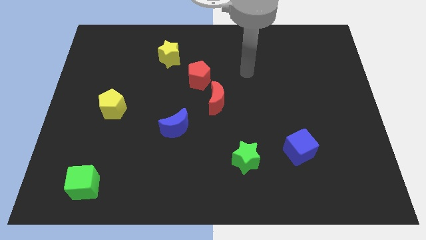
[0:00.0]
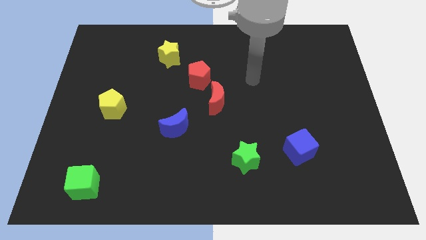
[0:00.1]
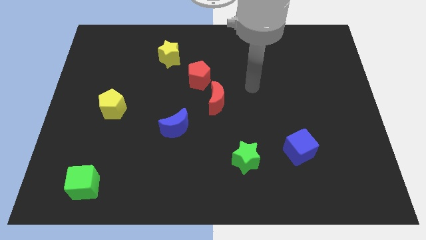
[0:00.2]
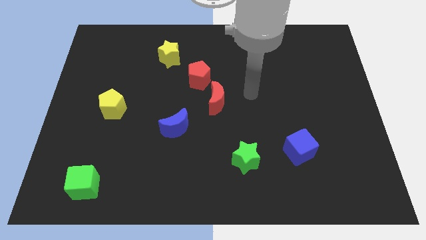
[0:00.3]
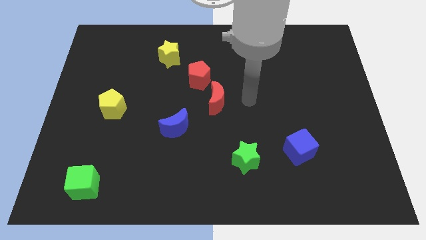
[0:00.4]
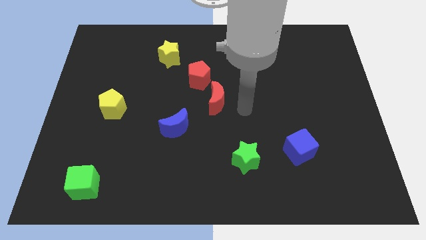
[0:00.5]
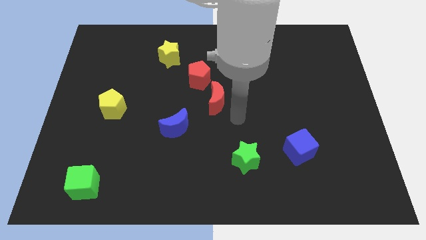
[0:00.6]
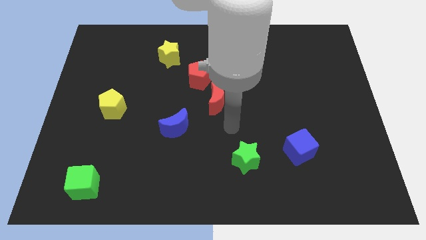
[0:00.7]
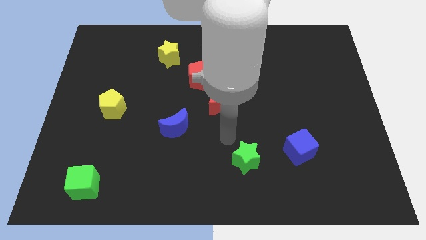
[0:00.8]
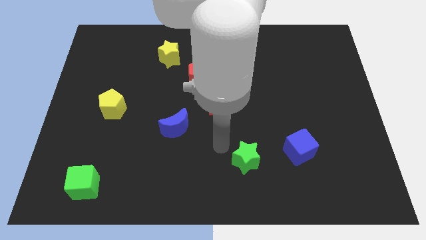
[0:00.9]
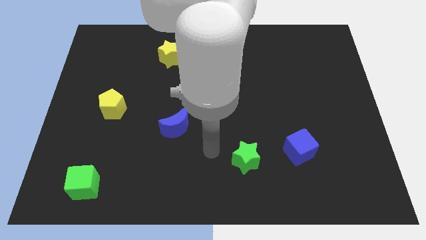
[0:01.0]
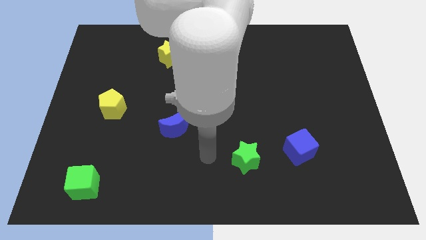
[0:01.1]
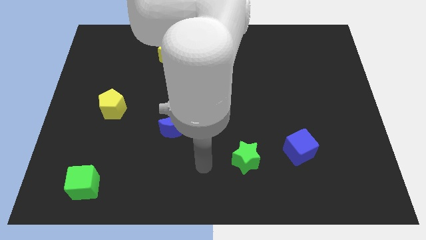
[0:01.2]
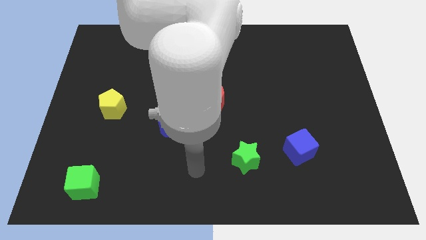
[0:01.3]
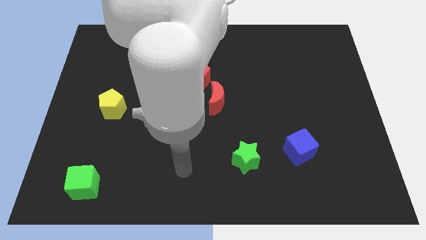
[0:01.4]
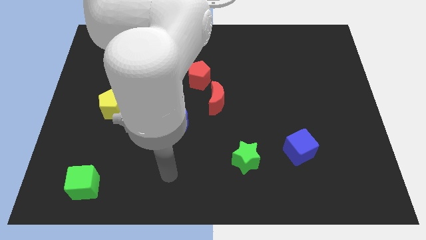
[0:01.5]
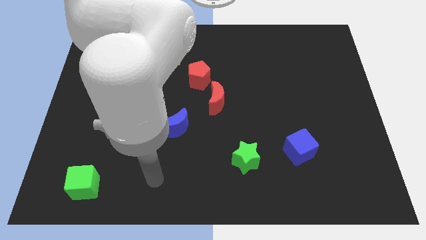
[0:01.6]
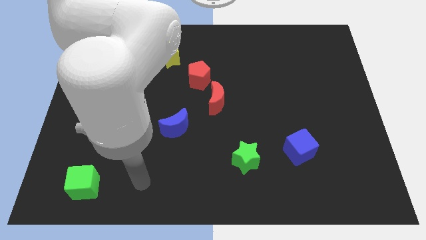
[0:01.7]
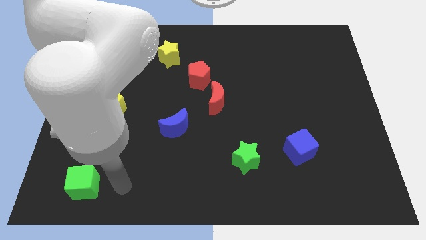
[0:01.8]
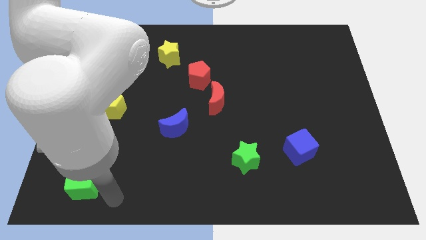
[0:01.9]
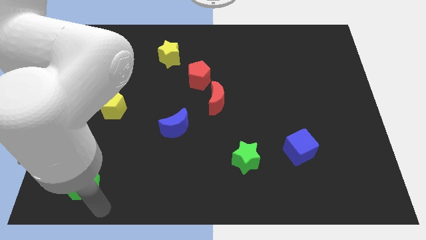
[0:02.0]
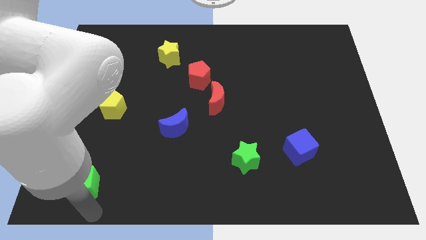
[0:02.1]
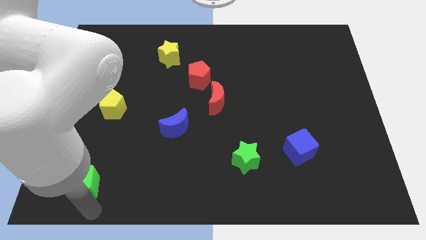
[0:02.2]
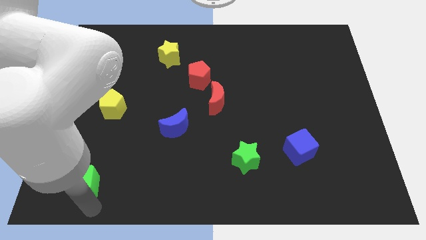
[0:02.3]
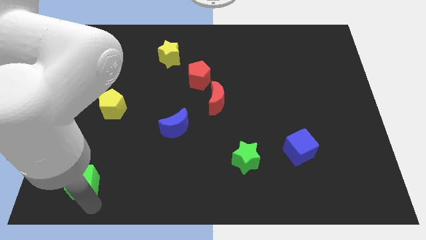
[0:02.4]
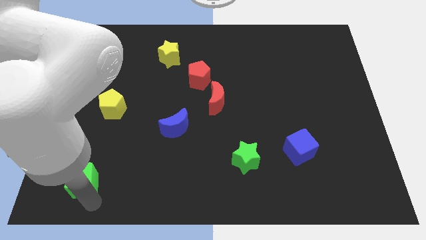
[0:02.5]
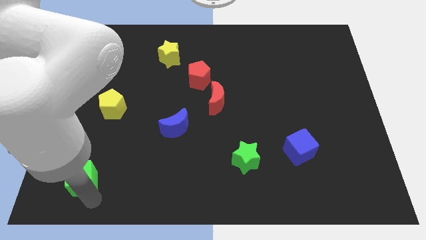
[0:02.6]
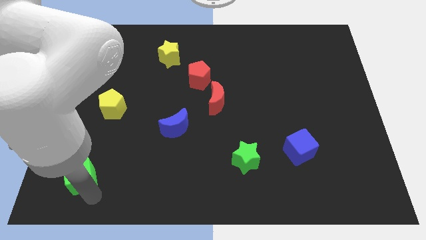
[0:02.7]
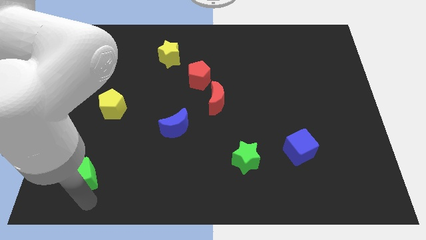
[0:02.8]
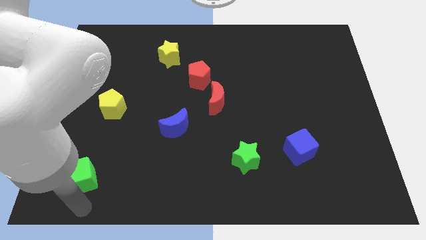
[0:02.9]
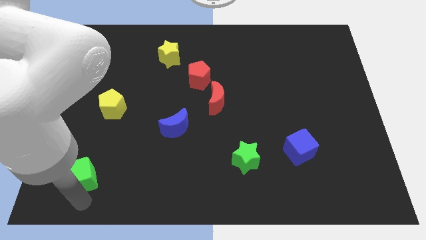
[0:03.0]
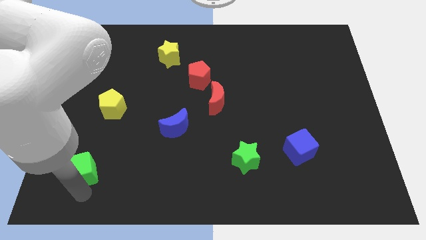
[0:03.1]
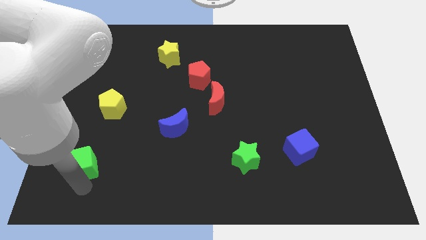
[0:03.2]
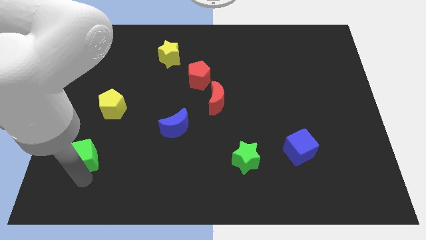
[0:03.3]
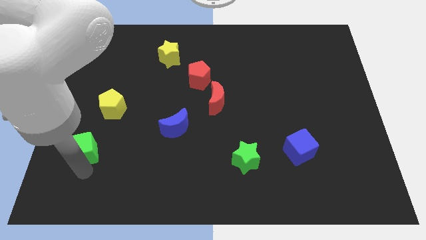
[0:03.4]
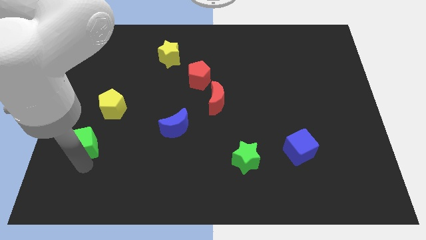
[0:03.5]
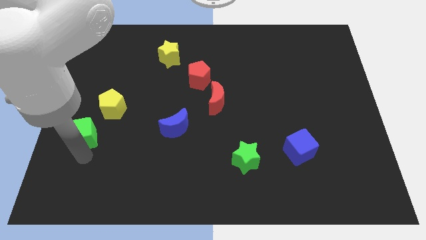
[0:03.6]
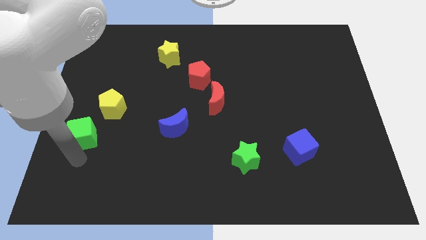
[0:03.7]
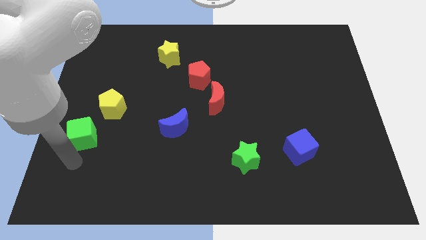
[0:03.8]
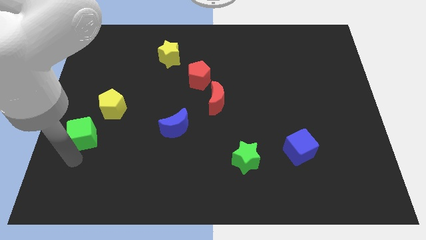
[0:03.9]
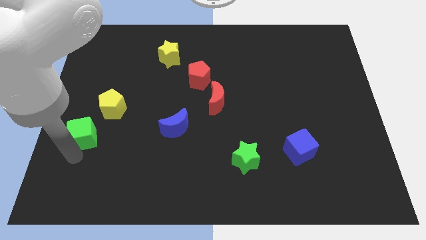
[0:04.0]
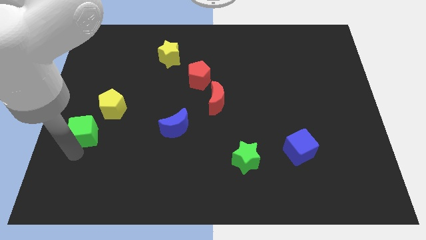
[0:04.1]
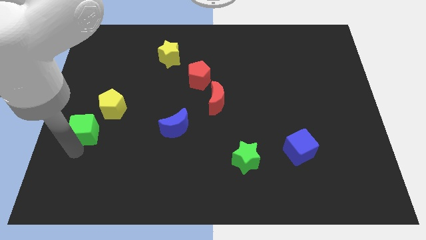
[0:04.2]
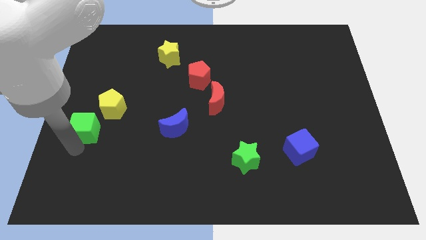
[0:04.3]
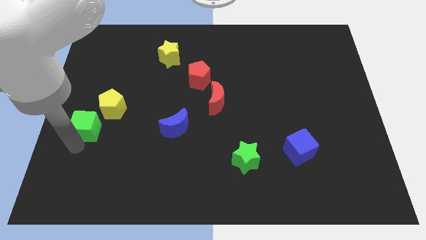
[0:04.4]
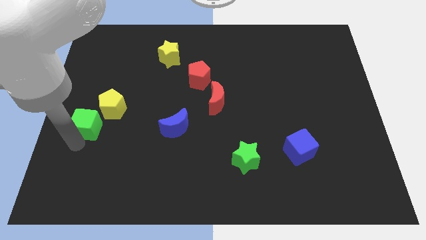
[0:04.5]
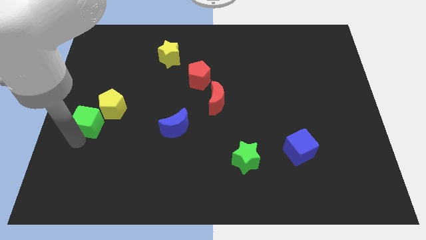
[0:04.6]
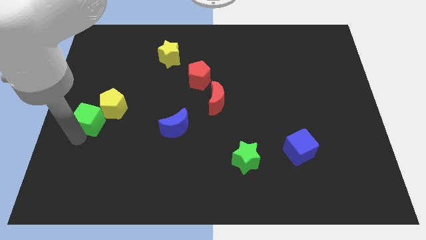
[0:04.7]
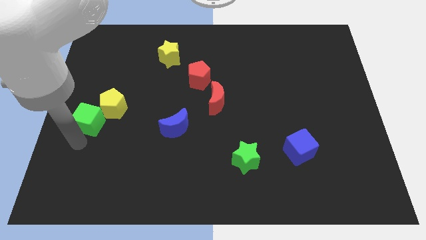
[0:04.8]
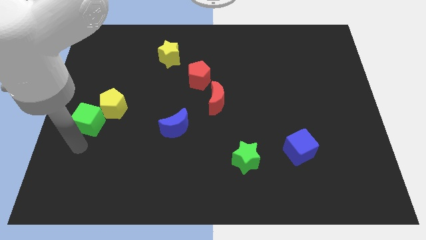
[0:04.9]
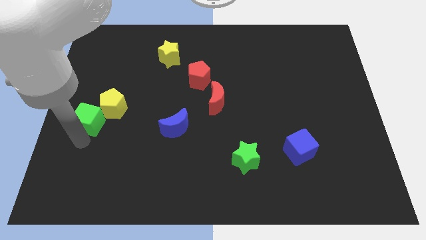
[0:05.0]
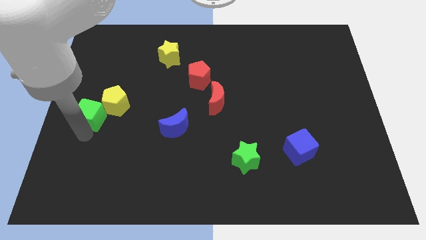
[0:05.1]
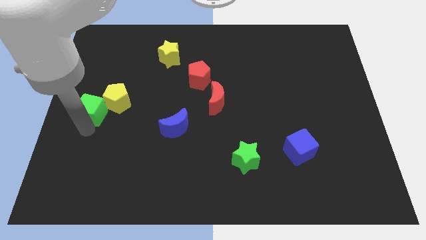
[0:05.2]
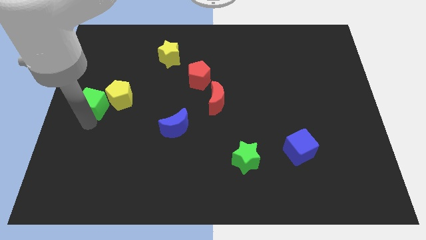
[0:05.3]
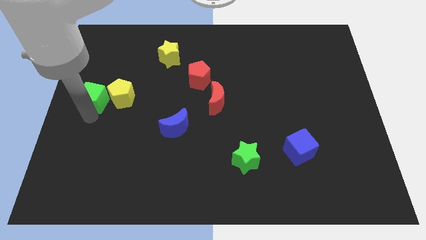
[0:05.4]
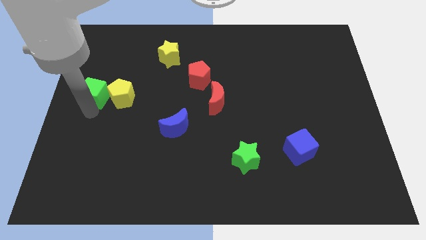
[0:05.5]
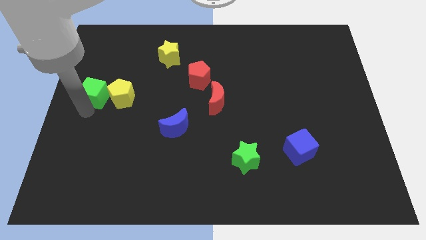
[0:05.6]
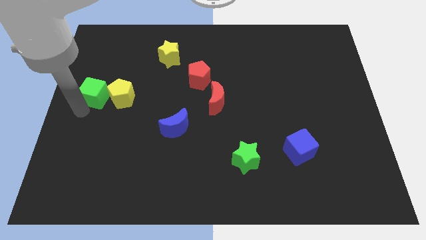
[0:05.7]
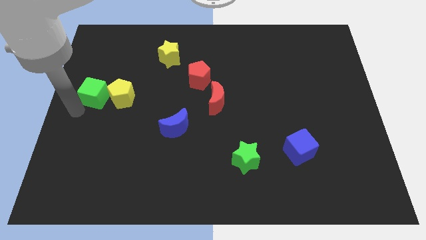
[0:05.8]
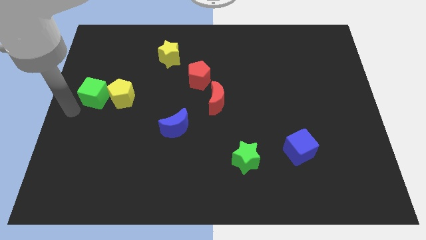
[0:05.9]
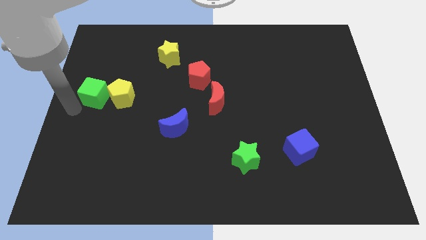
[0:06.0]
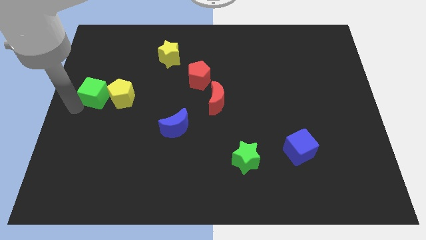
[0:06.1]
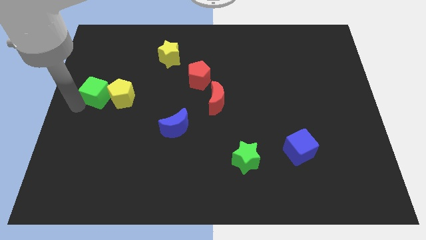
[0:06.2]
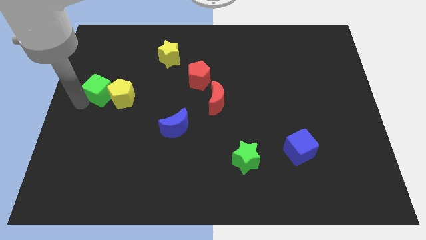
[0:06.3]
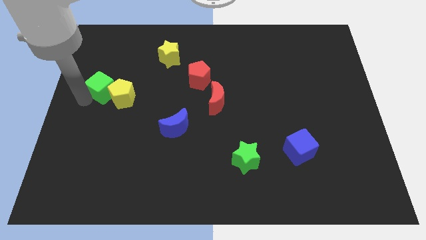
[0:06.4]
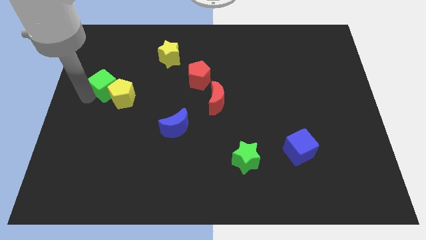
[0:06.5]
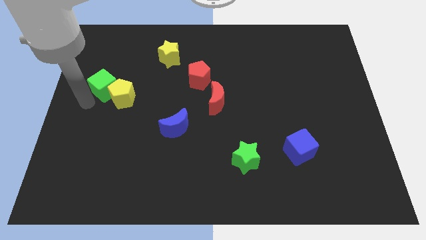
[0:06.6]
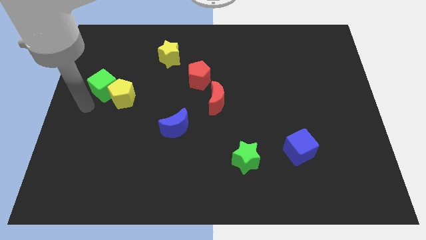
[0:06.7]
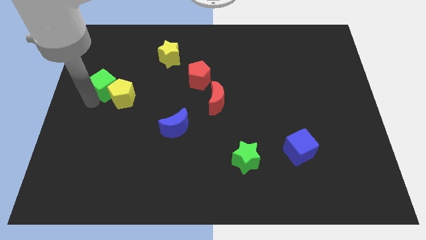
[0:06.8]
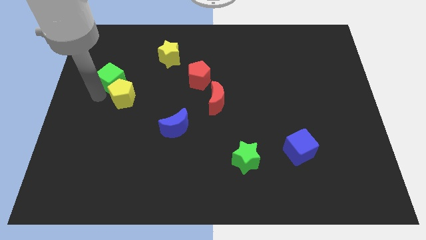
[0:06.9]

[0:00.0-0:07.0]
move the green cube to the top side of the yellow pentagon
